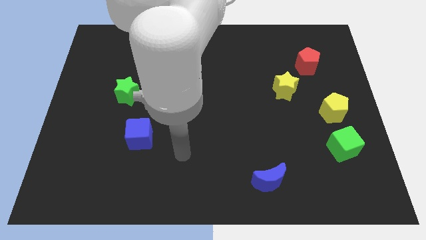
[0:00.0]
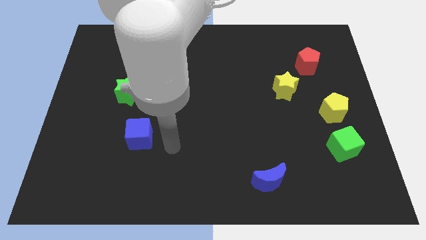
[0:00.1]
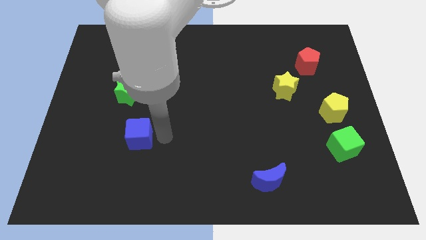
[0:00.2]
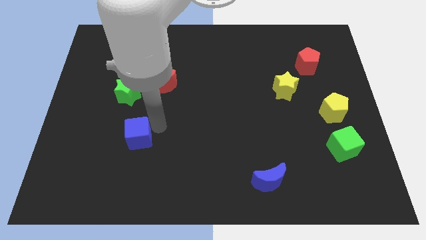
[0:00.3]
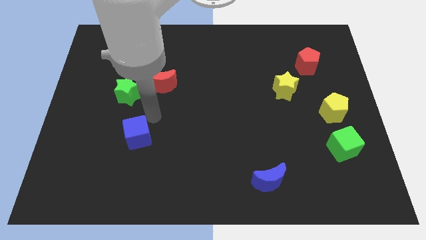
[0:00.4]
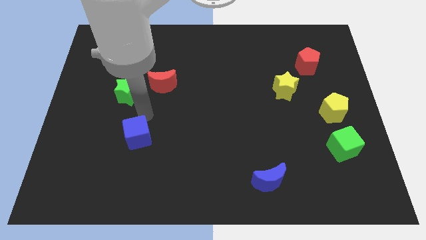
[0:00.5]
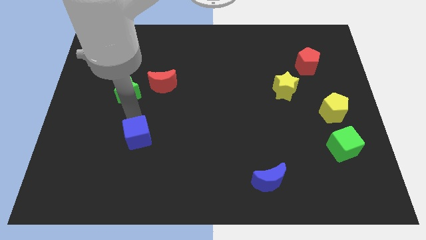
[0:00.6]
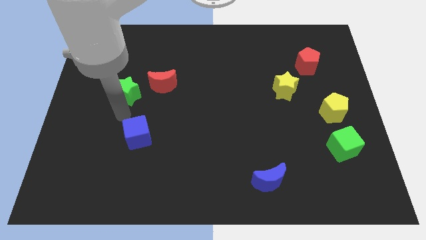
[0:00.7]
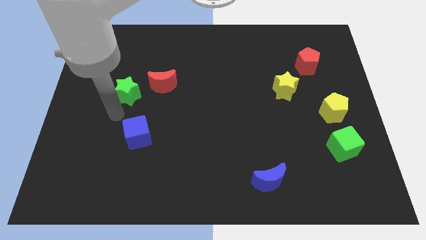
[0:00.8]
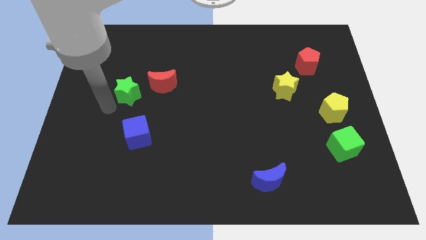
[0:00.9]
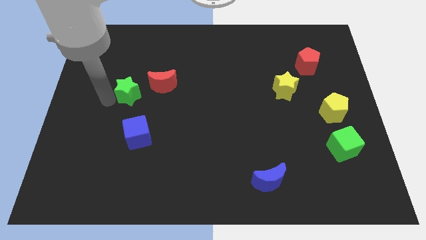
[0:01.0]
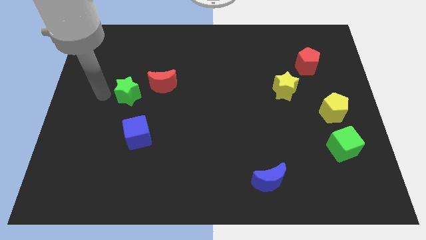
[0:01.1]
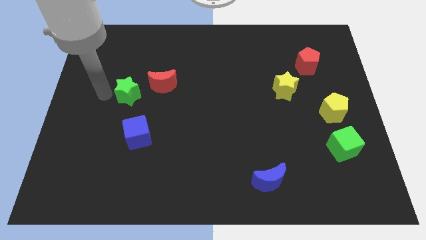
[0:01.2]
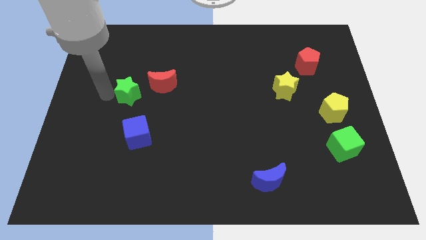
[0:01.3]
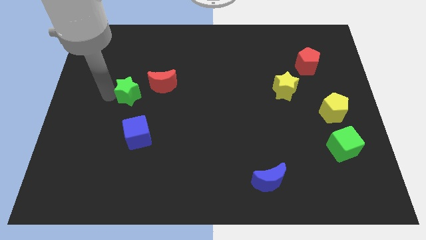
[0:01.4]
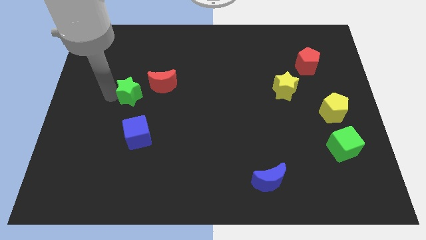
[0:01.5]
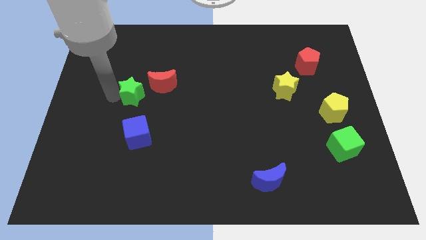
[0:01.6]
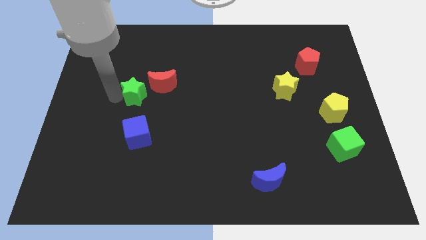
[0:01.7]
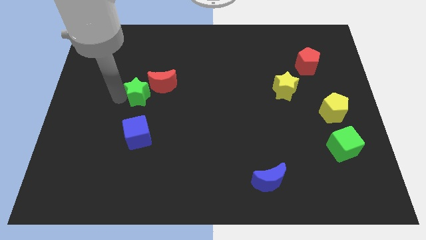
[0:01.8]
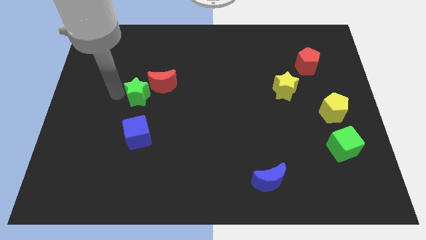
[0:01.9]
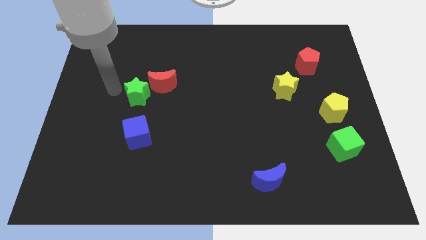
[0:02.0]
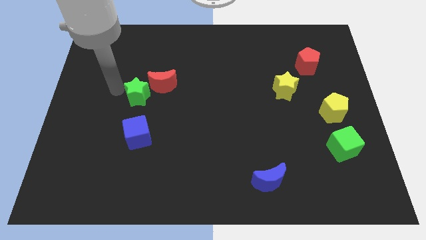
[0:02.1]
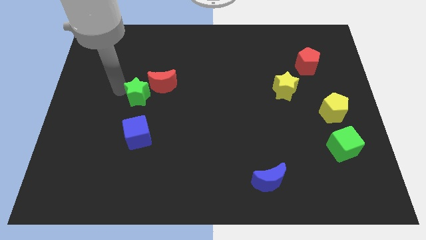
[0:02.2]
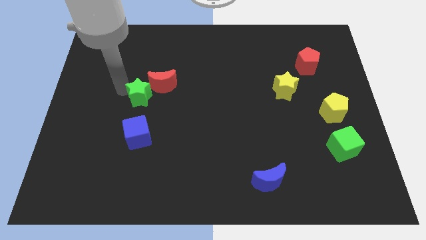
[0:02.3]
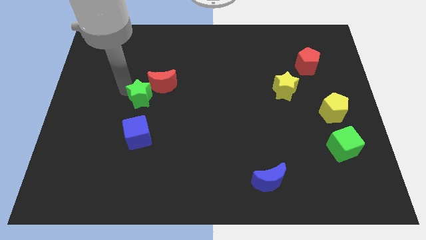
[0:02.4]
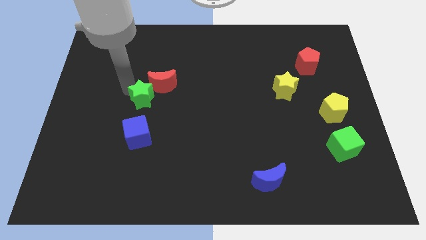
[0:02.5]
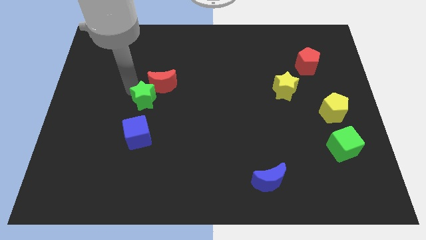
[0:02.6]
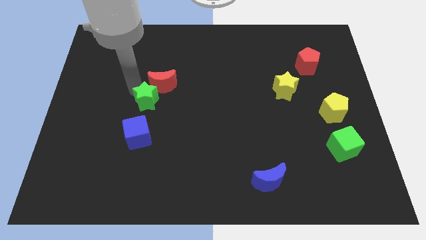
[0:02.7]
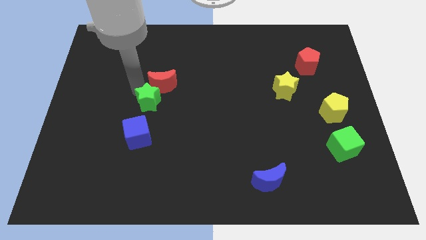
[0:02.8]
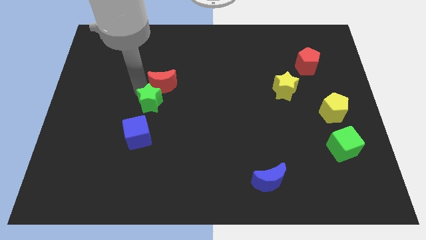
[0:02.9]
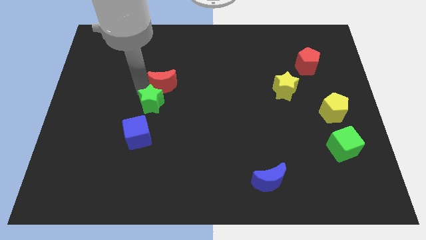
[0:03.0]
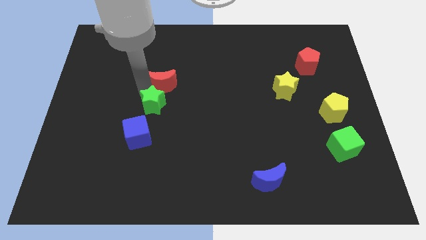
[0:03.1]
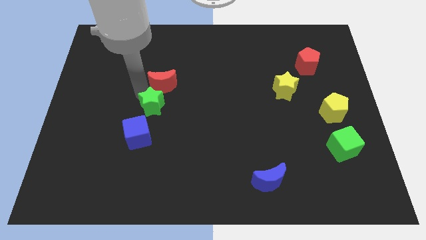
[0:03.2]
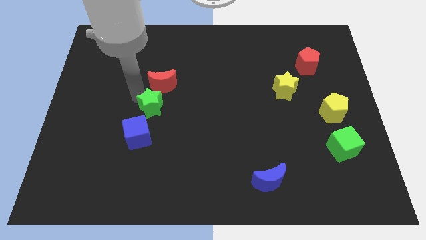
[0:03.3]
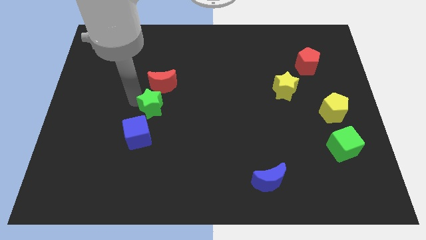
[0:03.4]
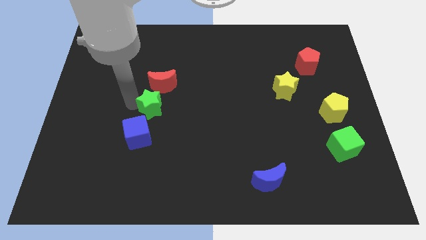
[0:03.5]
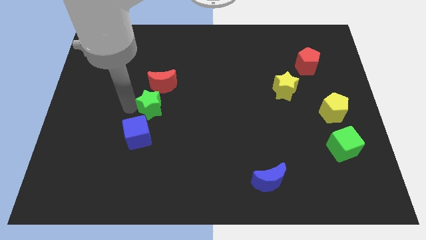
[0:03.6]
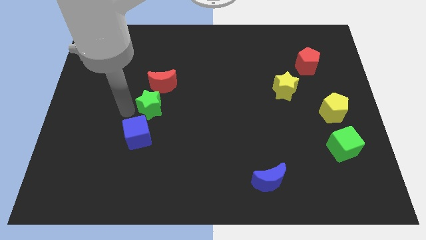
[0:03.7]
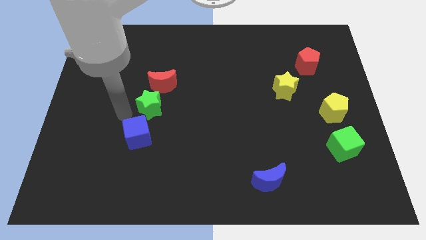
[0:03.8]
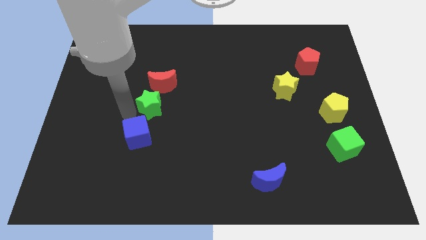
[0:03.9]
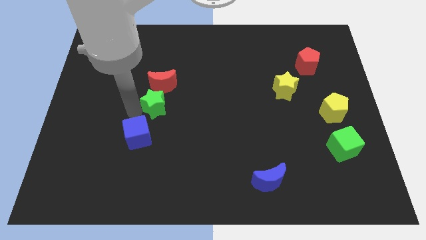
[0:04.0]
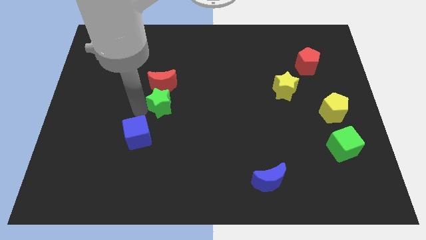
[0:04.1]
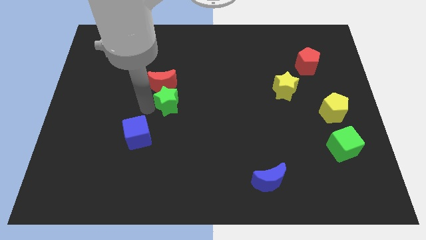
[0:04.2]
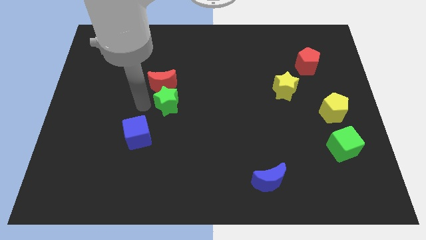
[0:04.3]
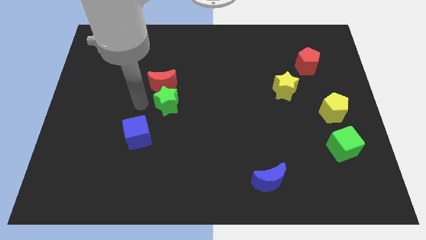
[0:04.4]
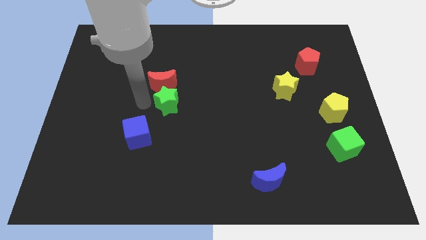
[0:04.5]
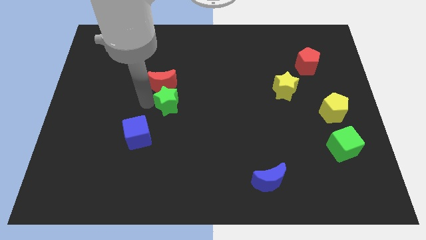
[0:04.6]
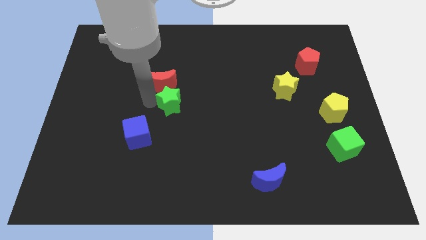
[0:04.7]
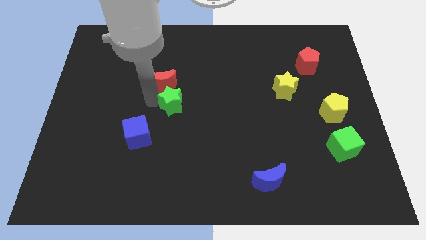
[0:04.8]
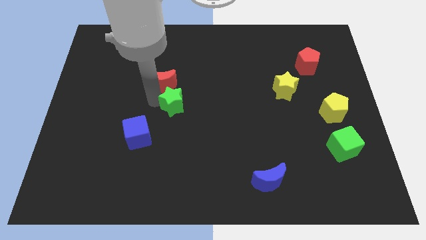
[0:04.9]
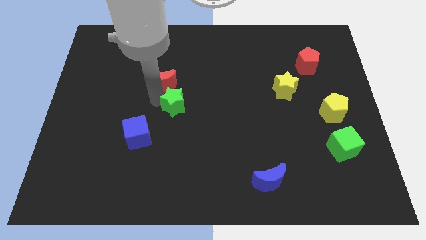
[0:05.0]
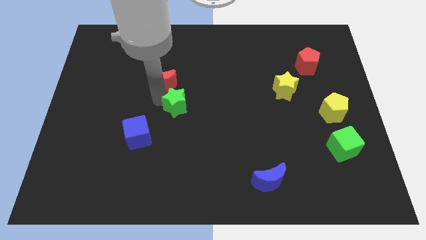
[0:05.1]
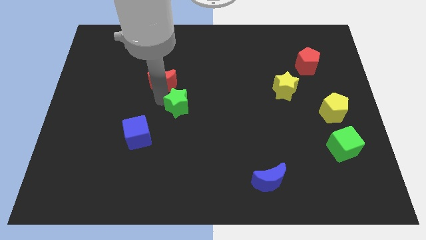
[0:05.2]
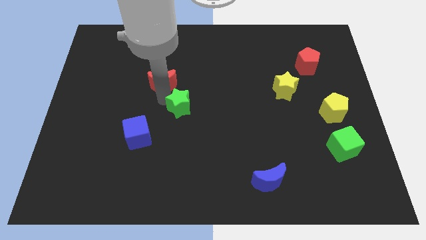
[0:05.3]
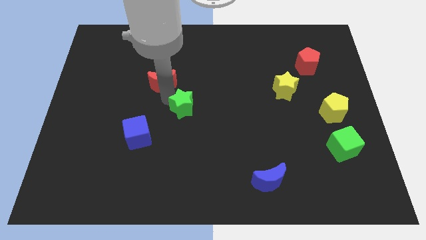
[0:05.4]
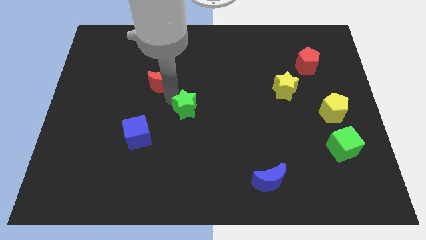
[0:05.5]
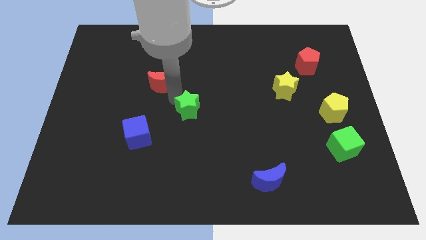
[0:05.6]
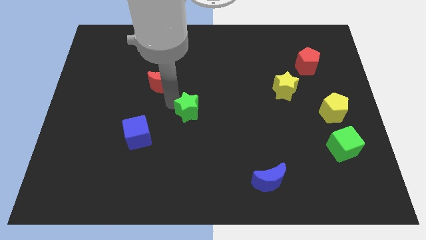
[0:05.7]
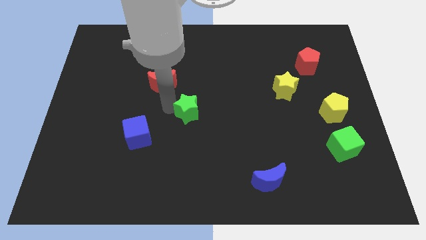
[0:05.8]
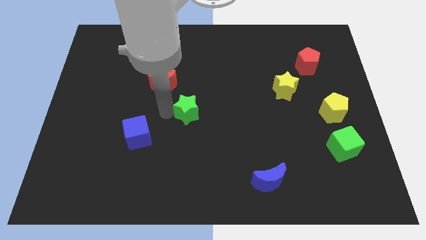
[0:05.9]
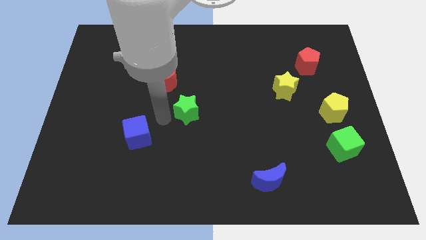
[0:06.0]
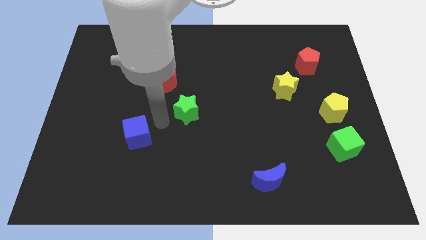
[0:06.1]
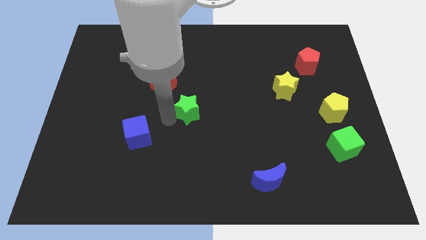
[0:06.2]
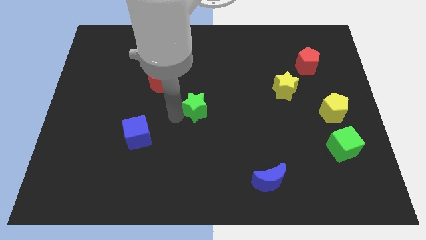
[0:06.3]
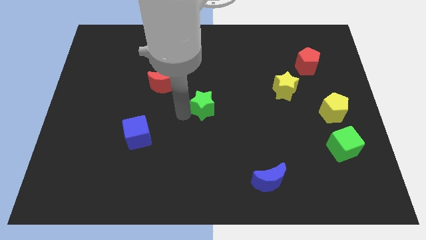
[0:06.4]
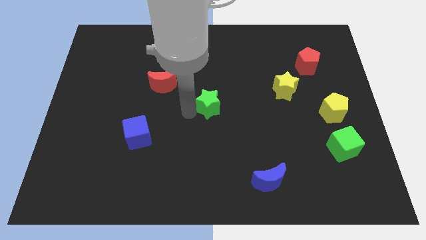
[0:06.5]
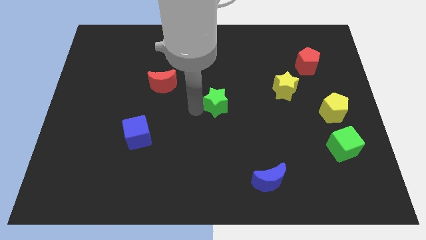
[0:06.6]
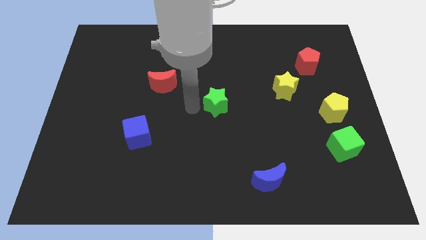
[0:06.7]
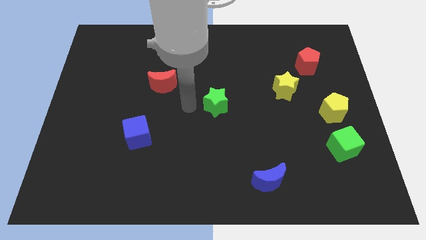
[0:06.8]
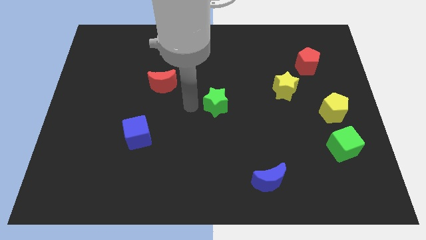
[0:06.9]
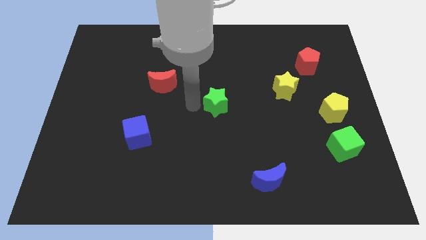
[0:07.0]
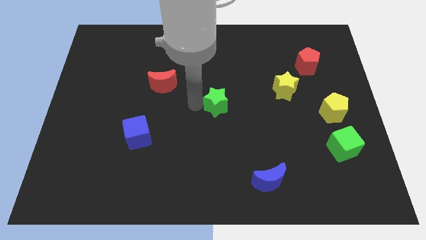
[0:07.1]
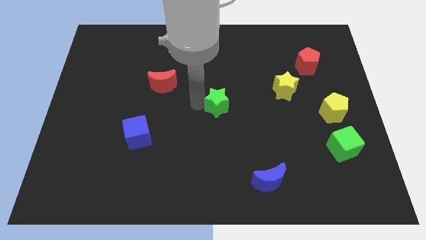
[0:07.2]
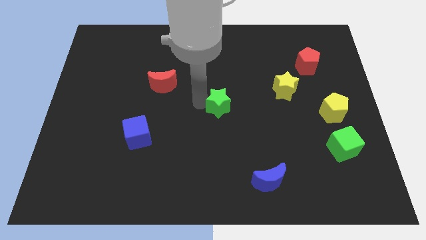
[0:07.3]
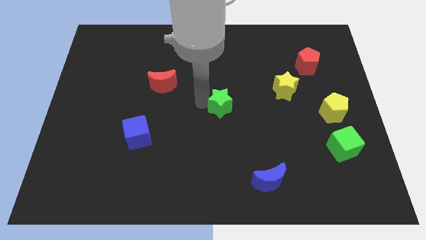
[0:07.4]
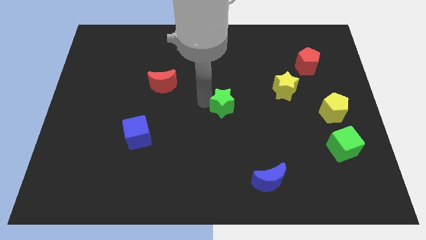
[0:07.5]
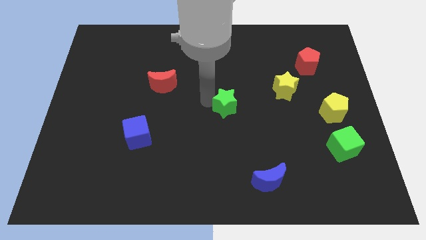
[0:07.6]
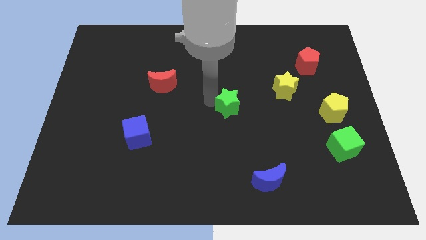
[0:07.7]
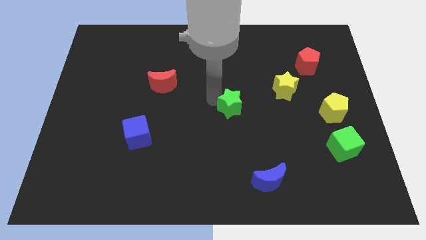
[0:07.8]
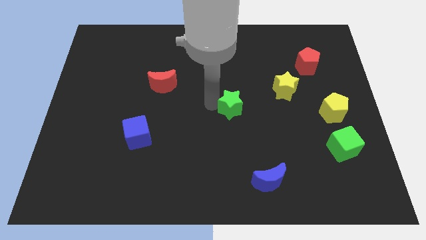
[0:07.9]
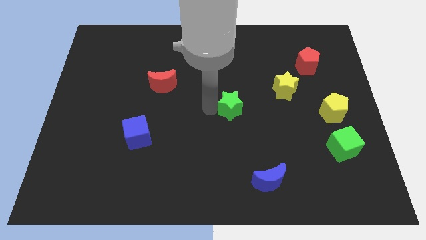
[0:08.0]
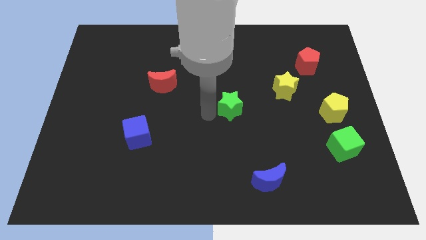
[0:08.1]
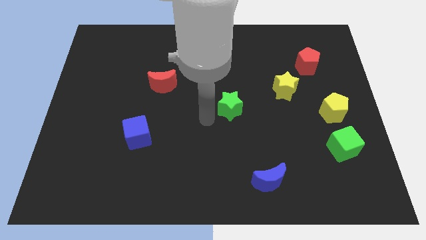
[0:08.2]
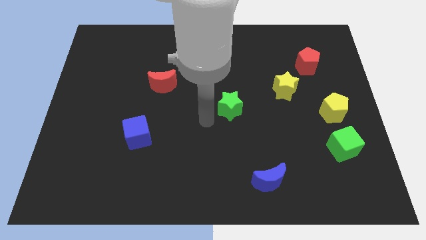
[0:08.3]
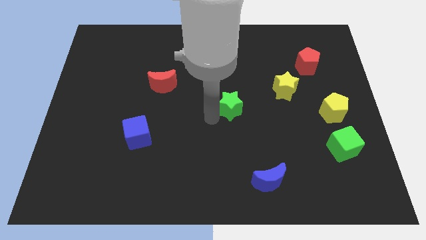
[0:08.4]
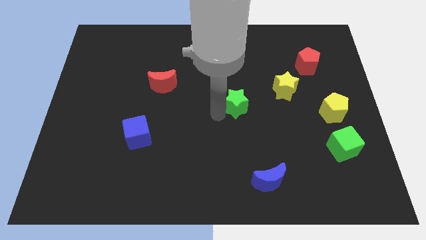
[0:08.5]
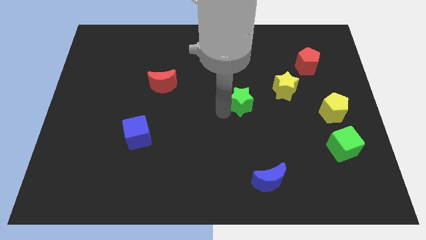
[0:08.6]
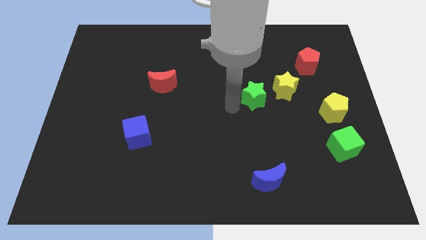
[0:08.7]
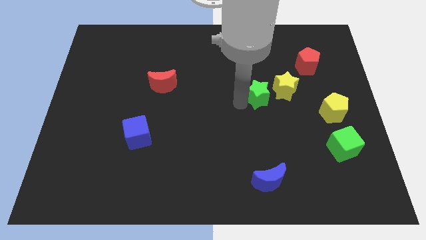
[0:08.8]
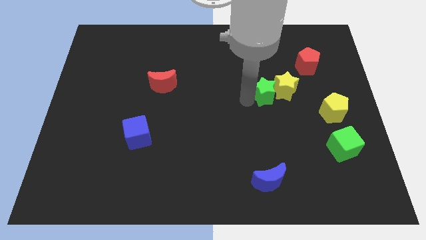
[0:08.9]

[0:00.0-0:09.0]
move the green star to the yellow star
